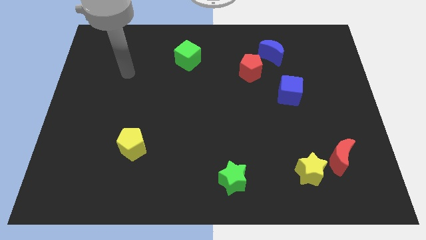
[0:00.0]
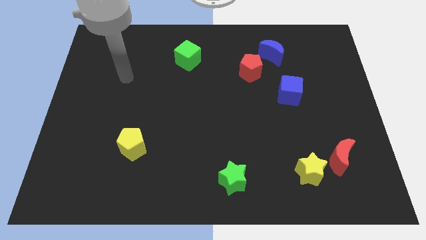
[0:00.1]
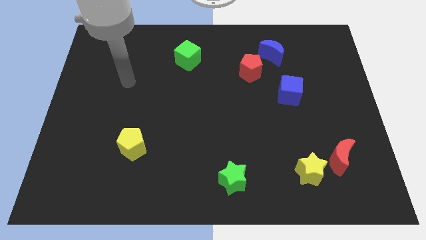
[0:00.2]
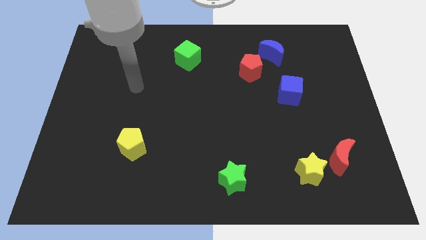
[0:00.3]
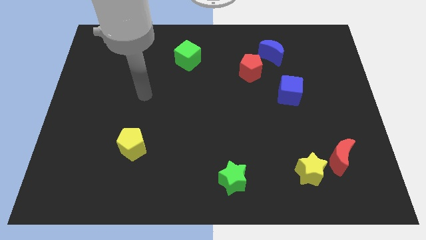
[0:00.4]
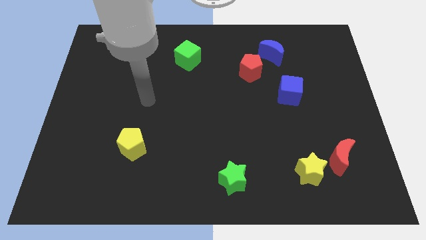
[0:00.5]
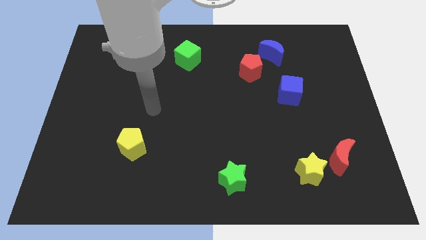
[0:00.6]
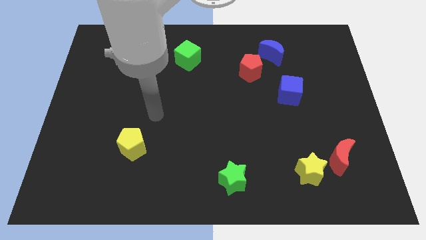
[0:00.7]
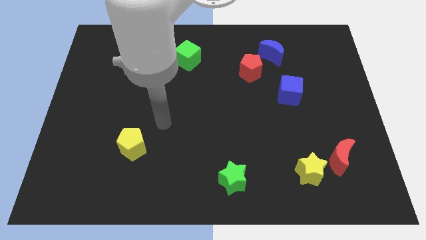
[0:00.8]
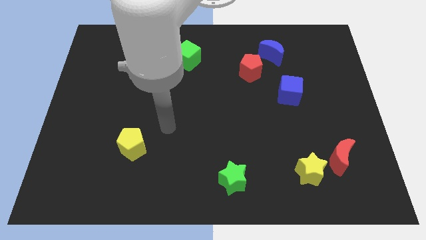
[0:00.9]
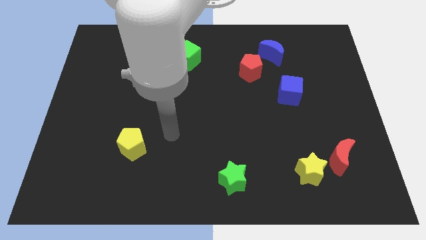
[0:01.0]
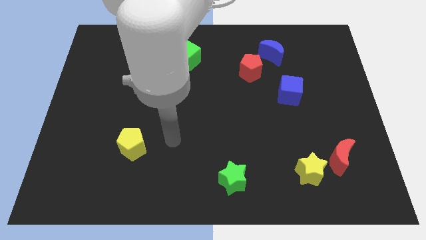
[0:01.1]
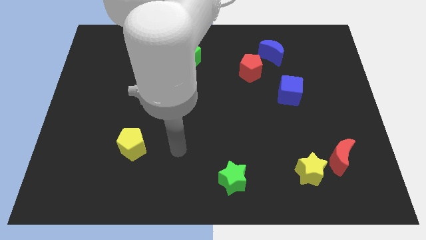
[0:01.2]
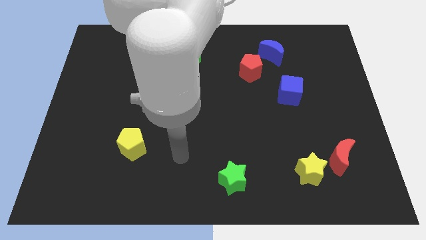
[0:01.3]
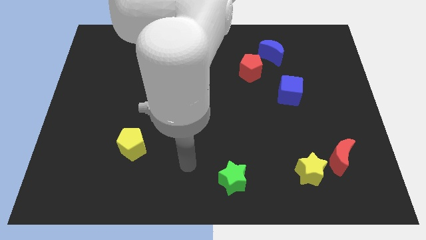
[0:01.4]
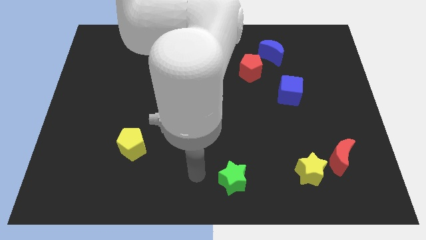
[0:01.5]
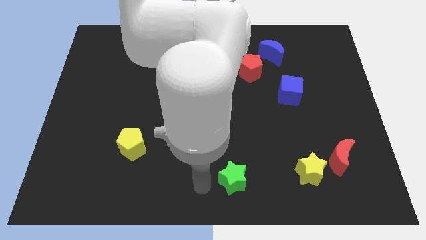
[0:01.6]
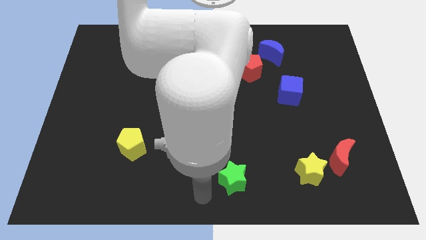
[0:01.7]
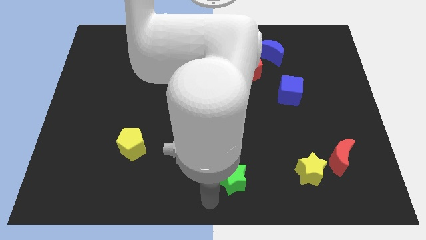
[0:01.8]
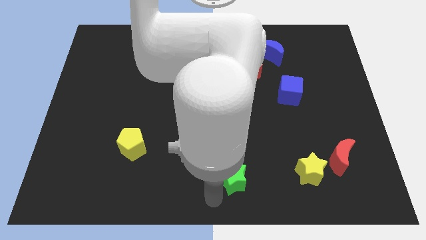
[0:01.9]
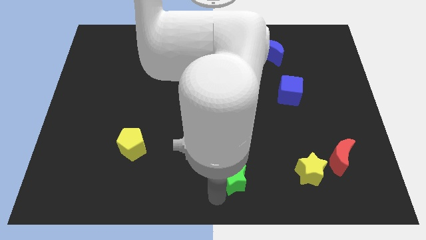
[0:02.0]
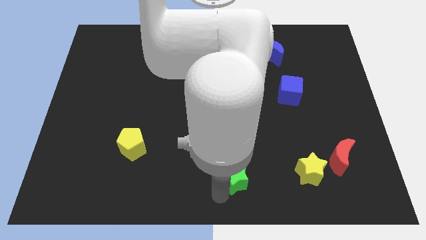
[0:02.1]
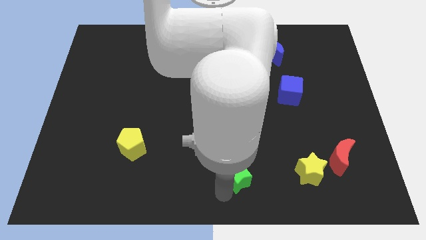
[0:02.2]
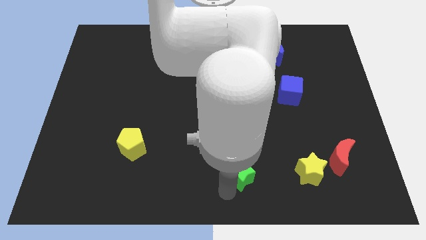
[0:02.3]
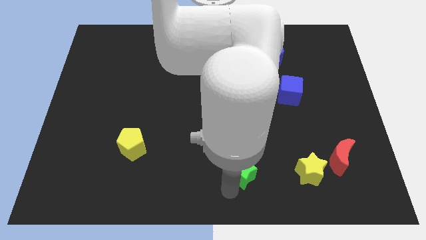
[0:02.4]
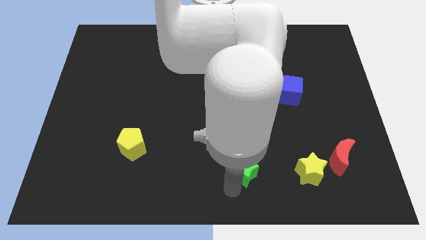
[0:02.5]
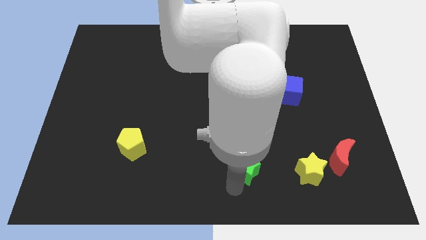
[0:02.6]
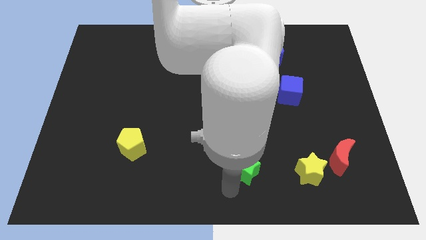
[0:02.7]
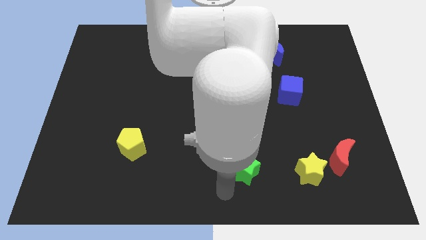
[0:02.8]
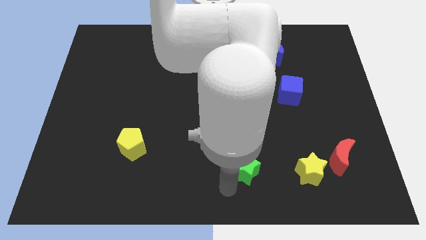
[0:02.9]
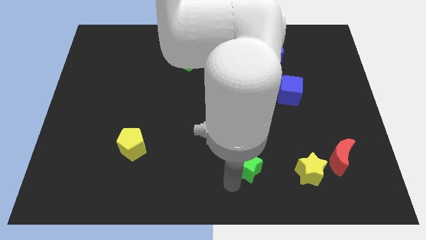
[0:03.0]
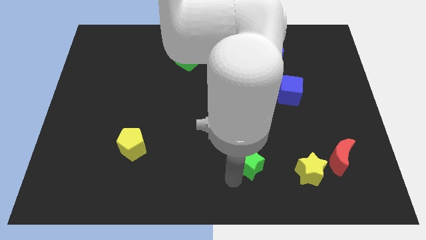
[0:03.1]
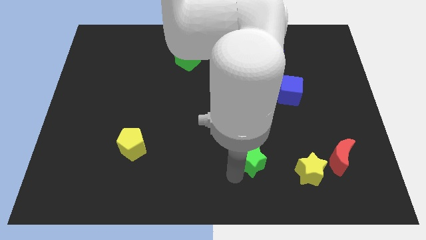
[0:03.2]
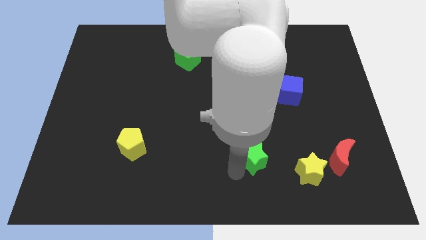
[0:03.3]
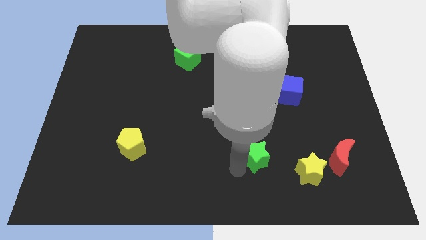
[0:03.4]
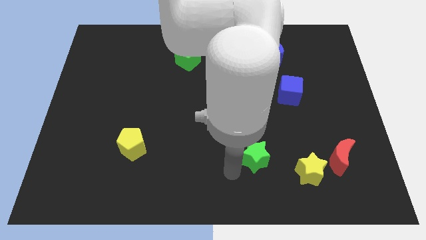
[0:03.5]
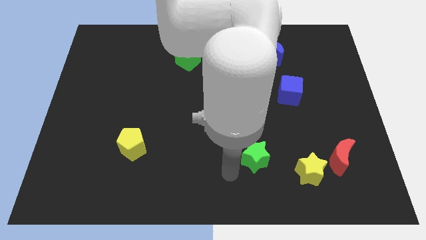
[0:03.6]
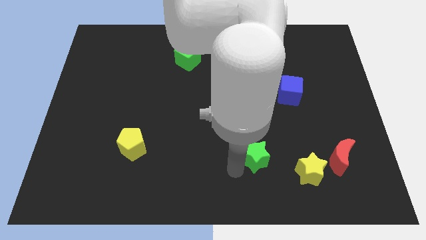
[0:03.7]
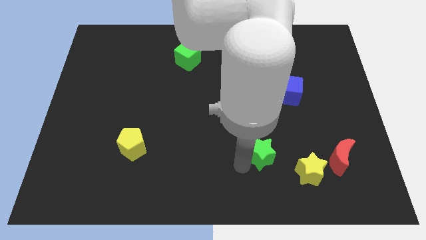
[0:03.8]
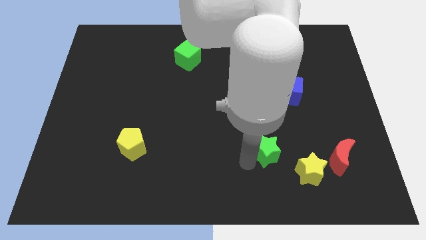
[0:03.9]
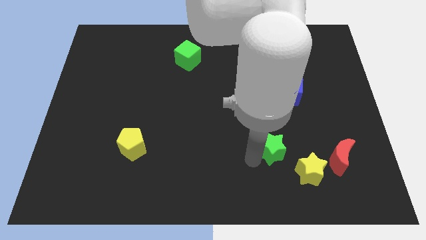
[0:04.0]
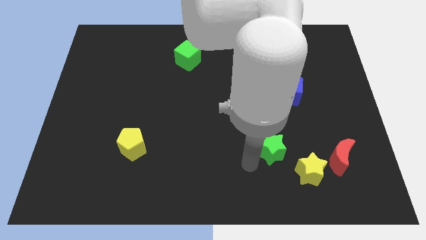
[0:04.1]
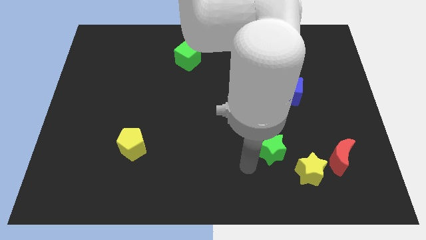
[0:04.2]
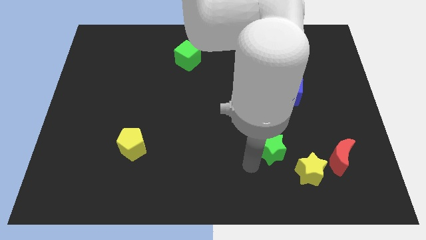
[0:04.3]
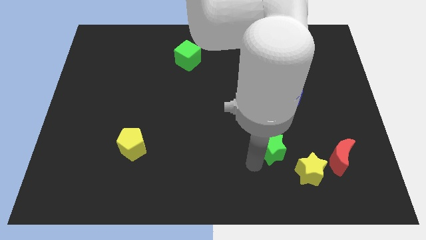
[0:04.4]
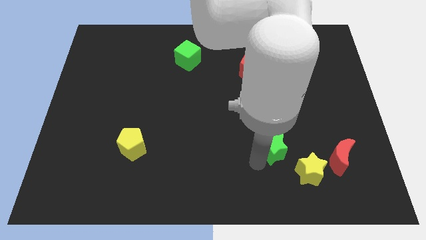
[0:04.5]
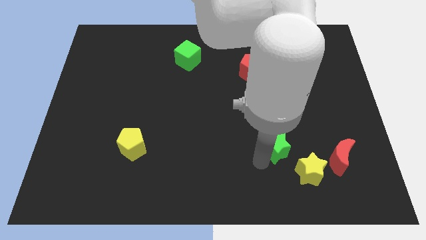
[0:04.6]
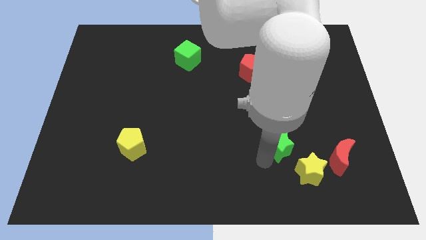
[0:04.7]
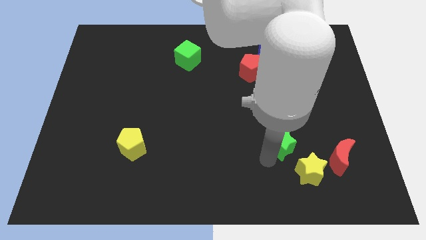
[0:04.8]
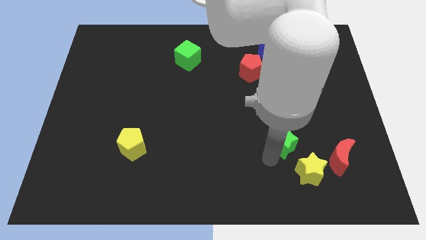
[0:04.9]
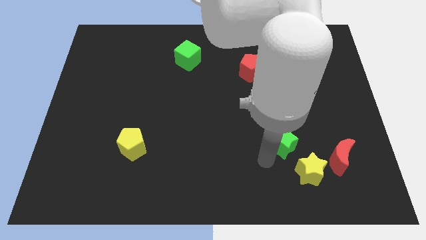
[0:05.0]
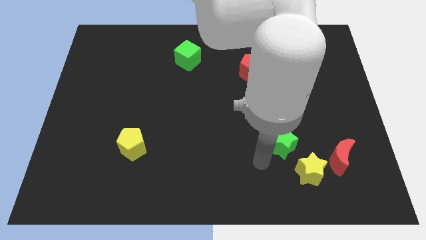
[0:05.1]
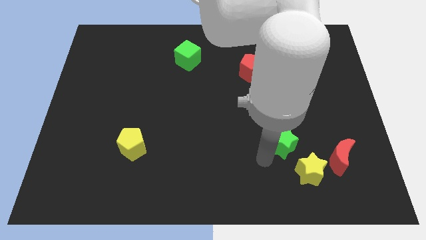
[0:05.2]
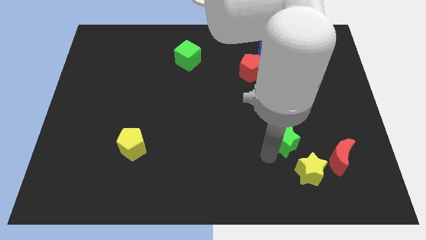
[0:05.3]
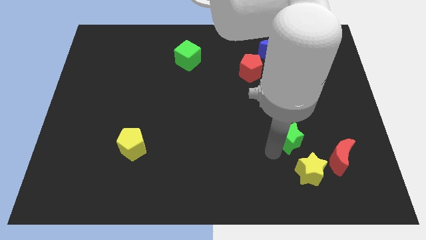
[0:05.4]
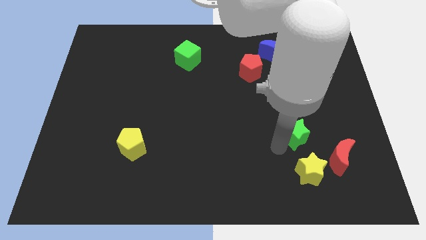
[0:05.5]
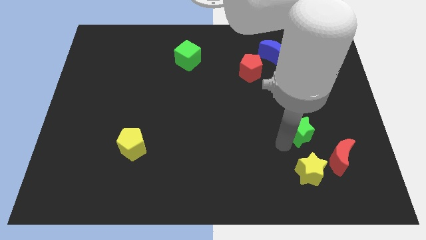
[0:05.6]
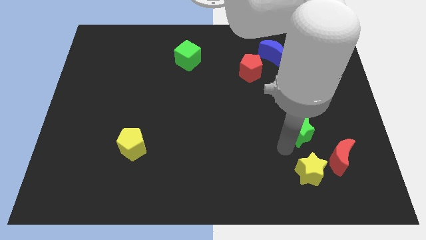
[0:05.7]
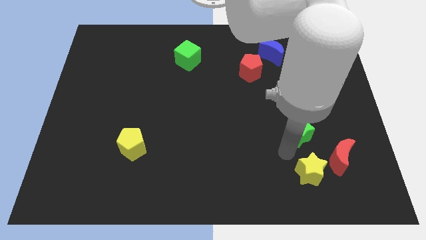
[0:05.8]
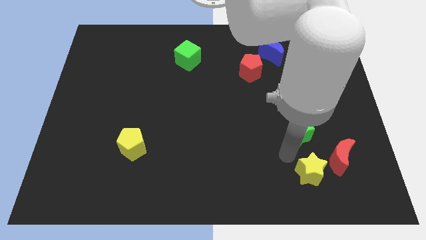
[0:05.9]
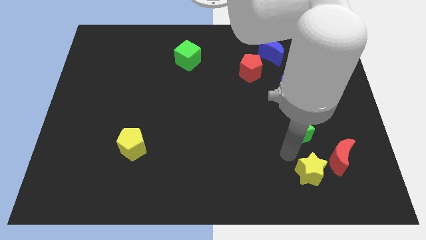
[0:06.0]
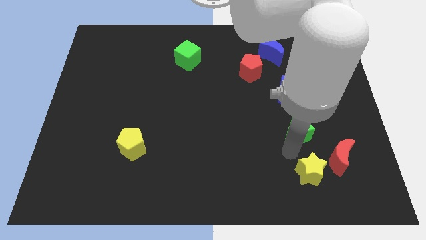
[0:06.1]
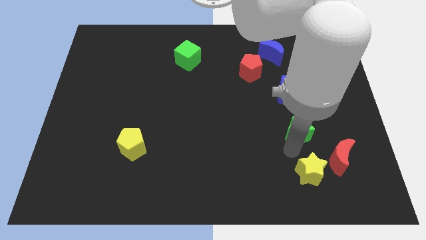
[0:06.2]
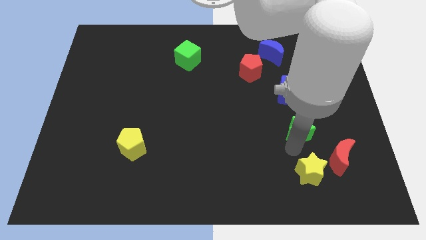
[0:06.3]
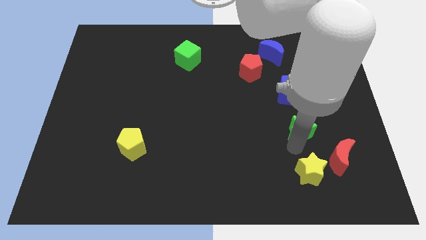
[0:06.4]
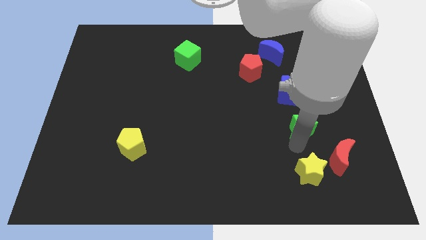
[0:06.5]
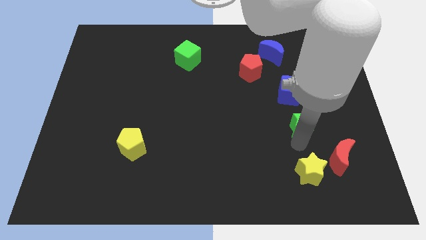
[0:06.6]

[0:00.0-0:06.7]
move the green star up and to the right diagonally

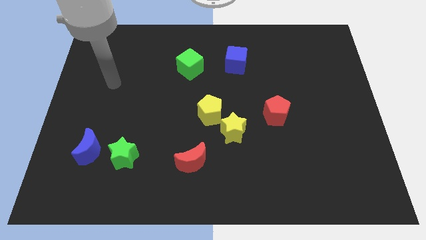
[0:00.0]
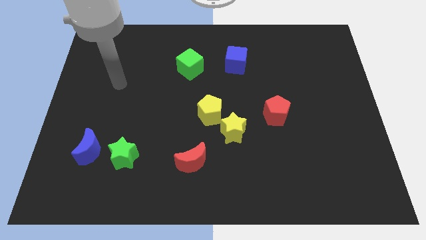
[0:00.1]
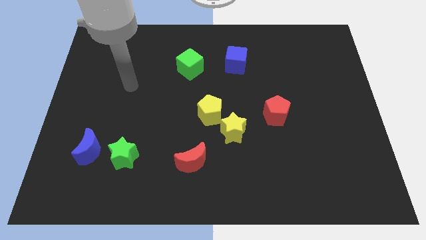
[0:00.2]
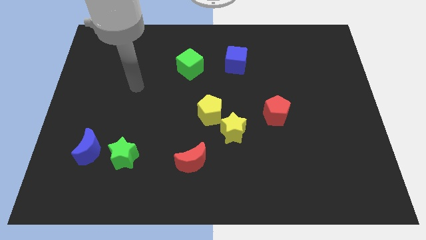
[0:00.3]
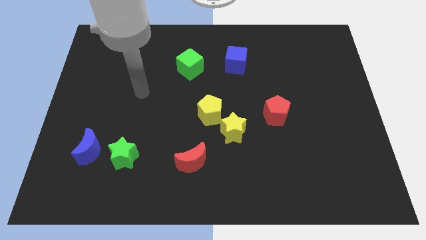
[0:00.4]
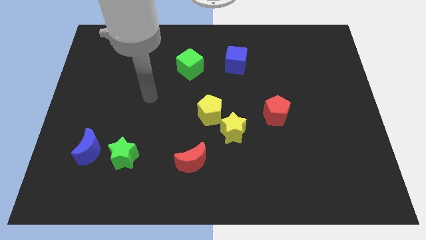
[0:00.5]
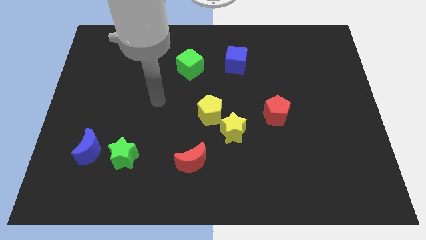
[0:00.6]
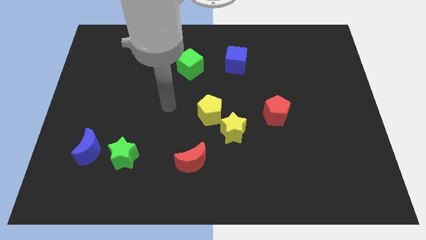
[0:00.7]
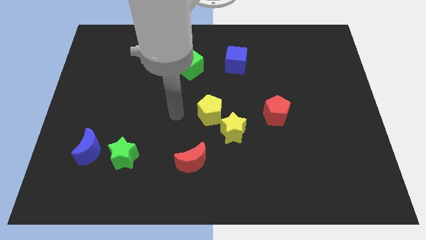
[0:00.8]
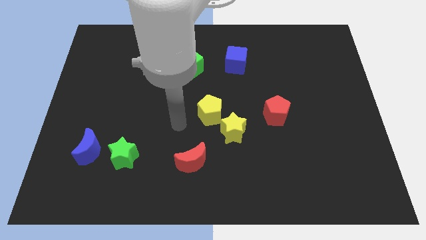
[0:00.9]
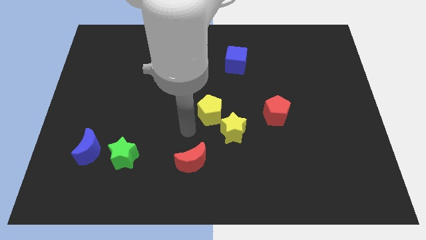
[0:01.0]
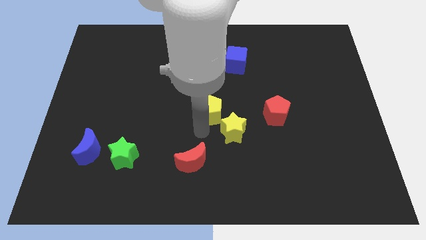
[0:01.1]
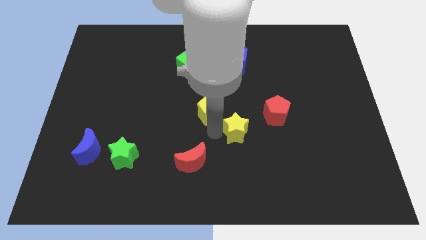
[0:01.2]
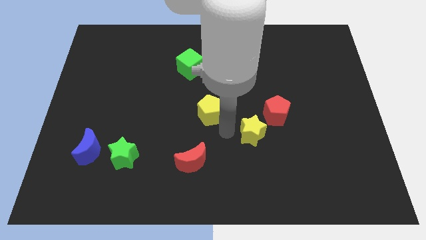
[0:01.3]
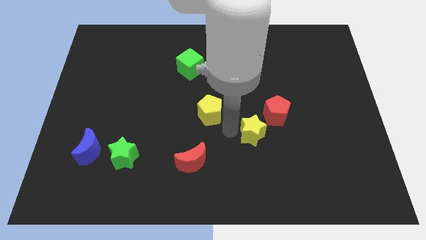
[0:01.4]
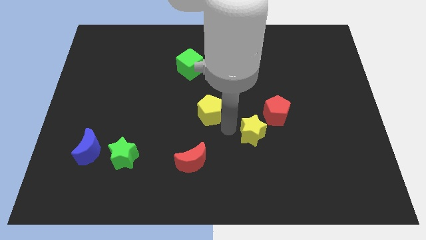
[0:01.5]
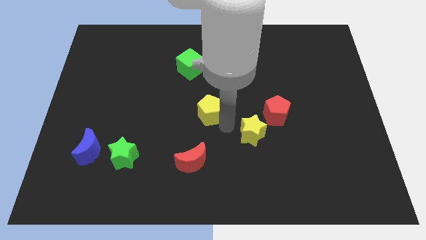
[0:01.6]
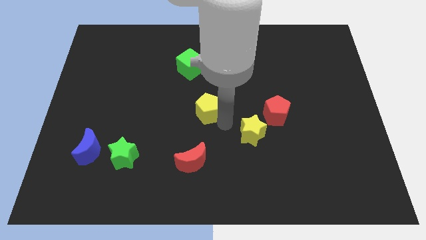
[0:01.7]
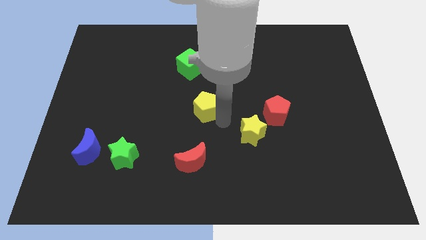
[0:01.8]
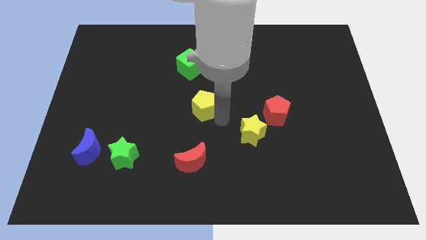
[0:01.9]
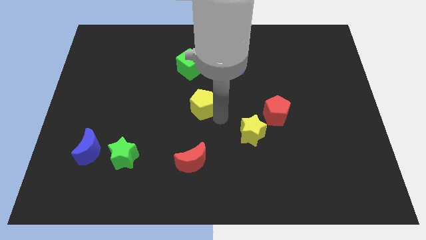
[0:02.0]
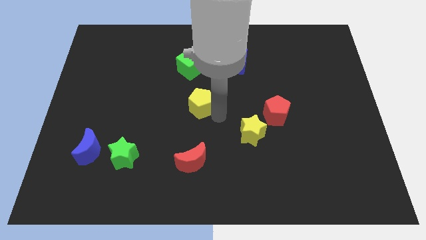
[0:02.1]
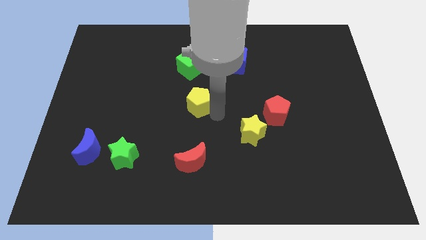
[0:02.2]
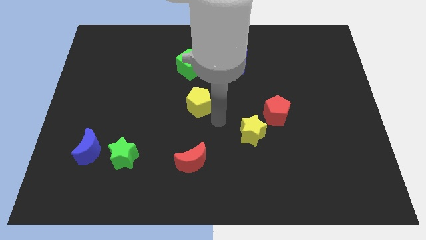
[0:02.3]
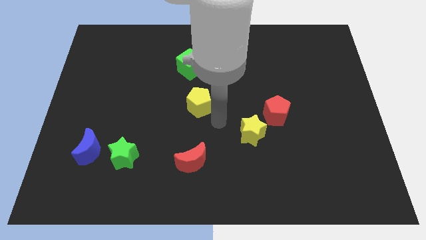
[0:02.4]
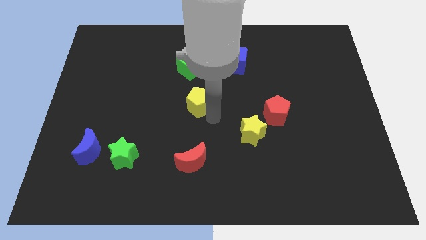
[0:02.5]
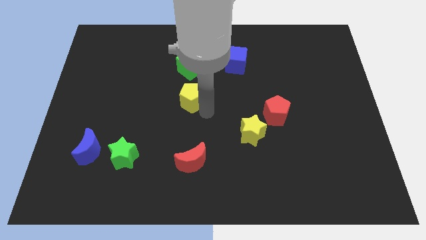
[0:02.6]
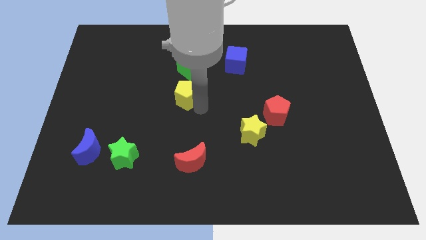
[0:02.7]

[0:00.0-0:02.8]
slightly push the yellow pentagon diagonally upwards and to the left
